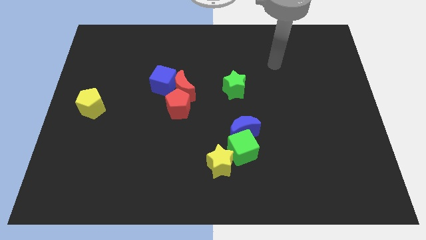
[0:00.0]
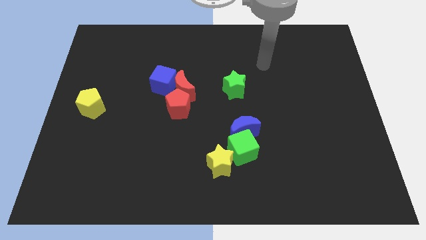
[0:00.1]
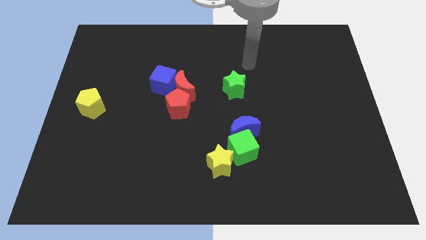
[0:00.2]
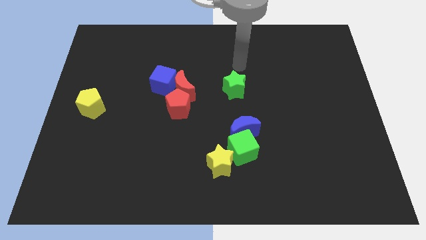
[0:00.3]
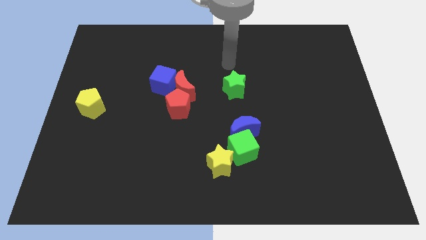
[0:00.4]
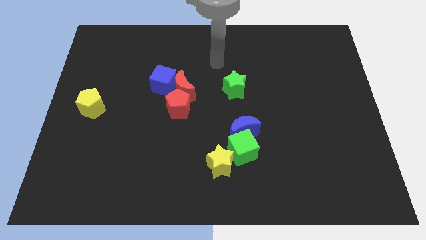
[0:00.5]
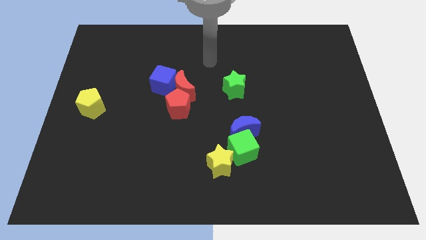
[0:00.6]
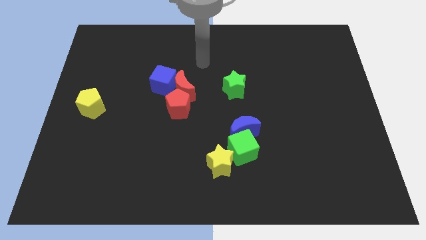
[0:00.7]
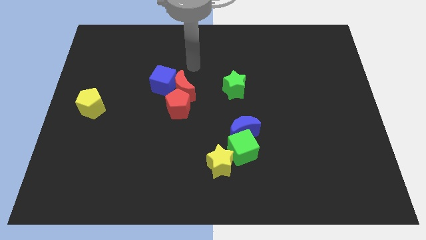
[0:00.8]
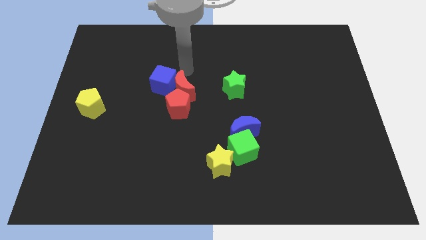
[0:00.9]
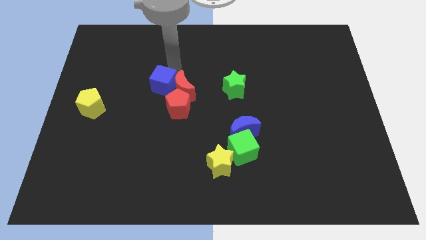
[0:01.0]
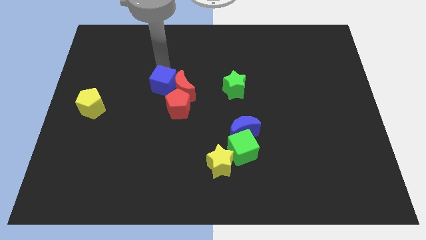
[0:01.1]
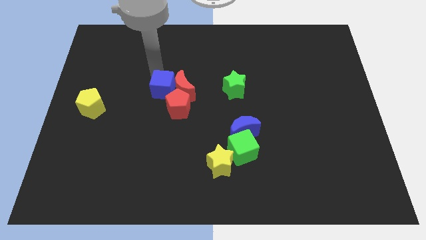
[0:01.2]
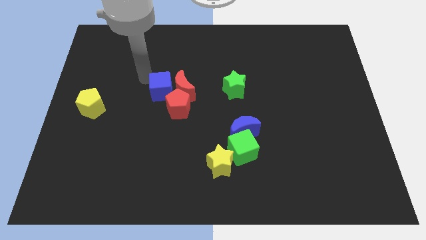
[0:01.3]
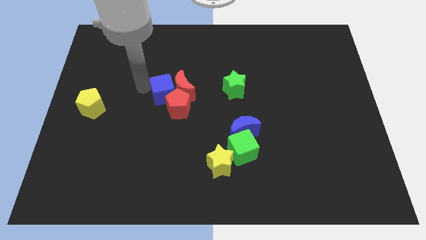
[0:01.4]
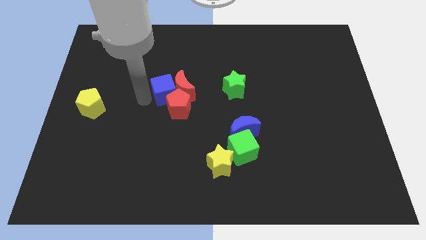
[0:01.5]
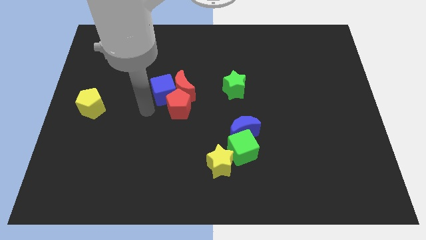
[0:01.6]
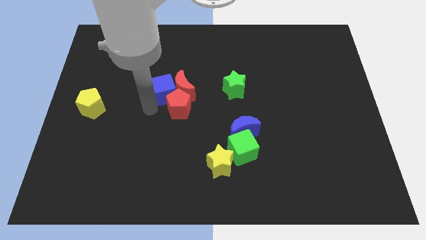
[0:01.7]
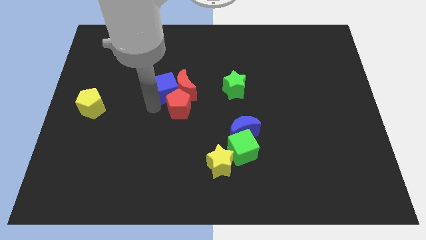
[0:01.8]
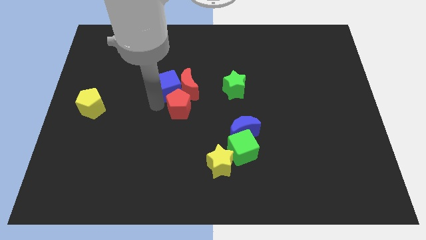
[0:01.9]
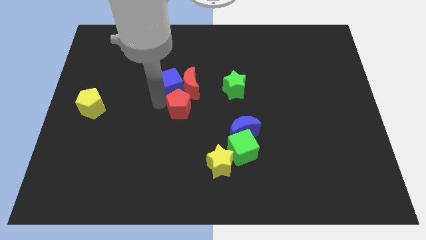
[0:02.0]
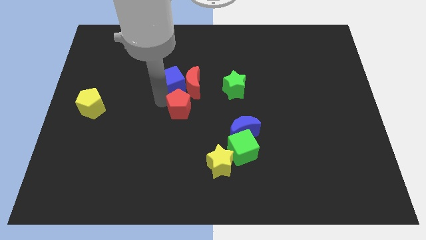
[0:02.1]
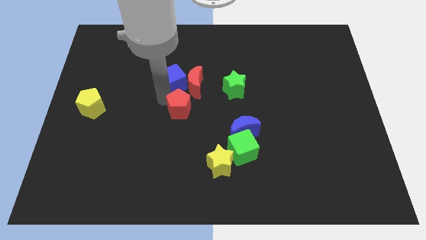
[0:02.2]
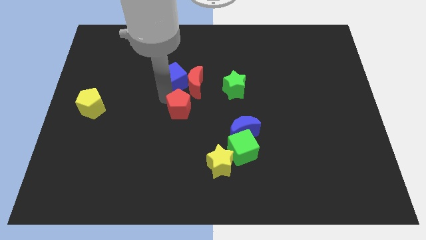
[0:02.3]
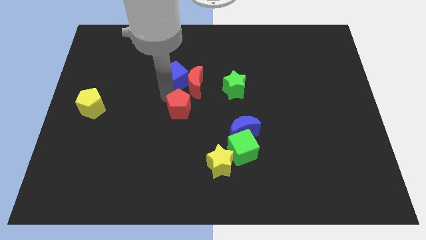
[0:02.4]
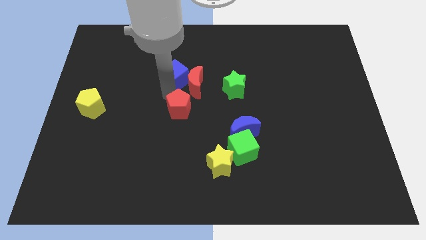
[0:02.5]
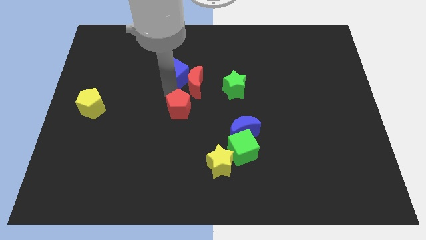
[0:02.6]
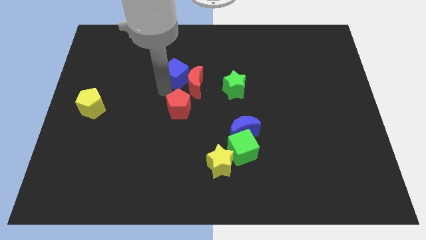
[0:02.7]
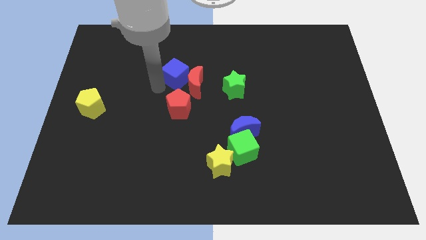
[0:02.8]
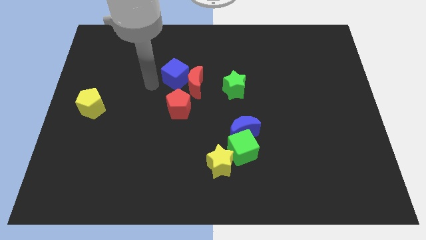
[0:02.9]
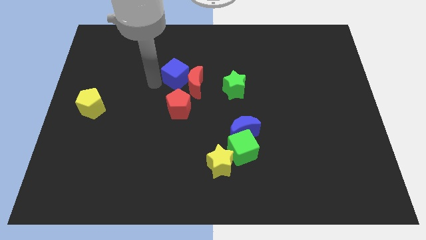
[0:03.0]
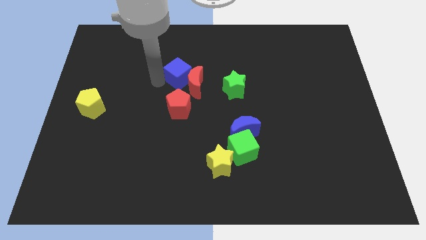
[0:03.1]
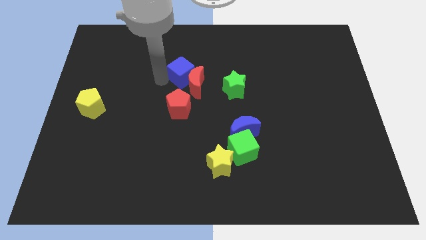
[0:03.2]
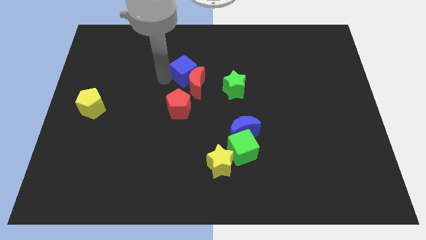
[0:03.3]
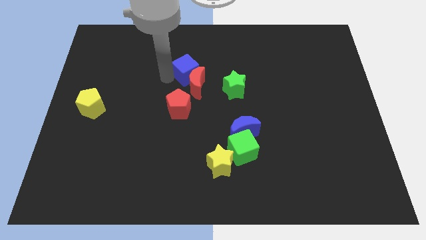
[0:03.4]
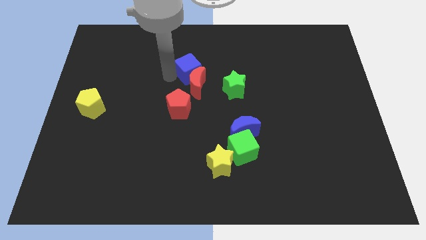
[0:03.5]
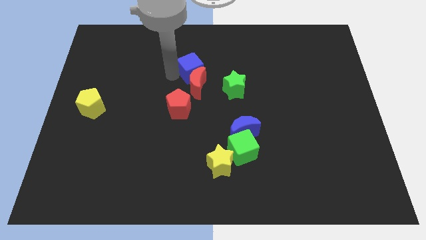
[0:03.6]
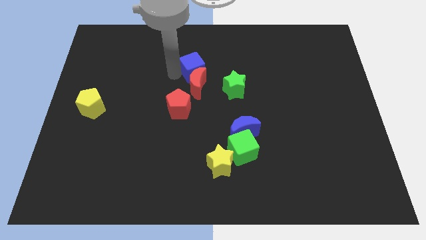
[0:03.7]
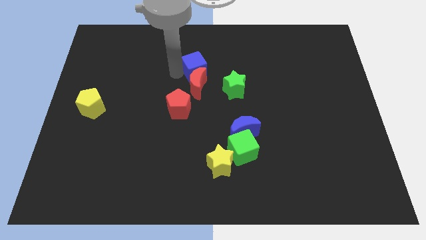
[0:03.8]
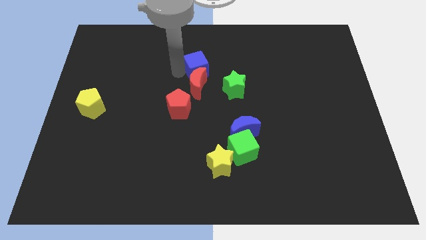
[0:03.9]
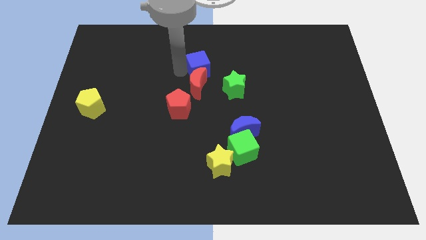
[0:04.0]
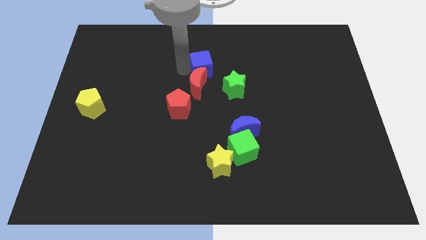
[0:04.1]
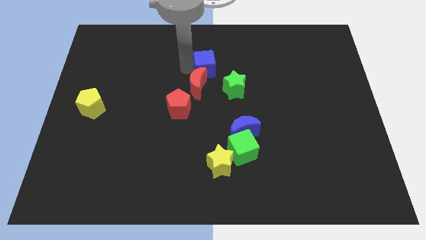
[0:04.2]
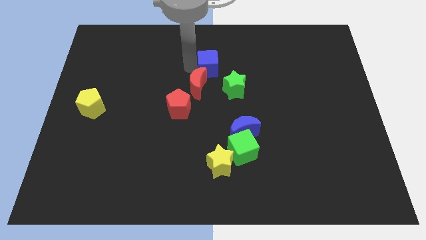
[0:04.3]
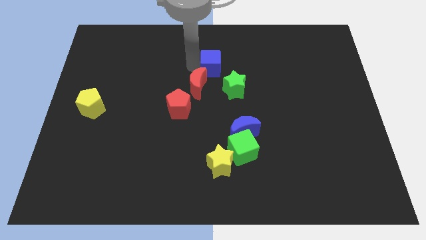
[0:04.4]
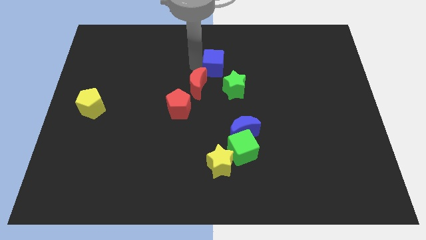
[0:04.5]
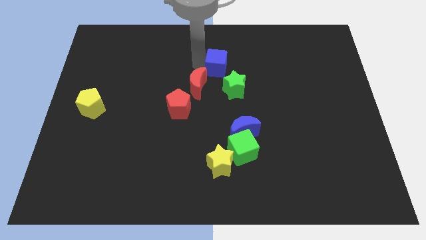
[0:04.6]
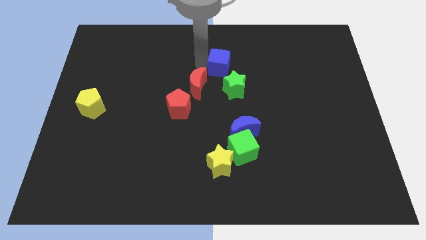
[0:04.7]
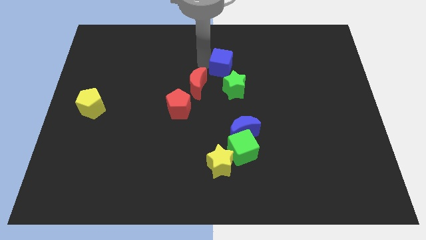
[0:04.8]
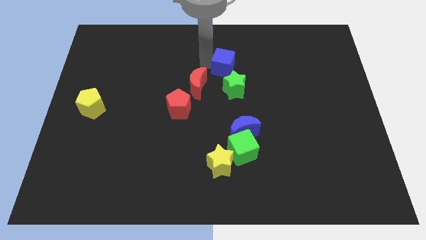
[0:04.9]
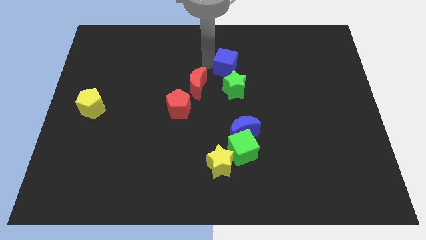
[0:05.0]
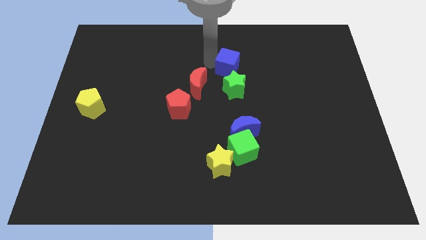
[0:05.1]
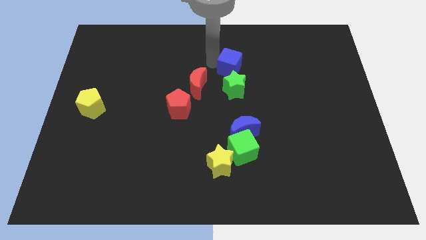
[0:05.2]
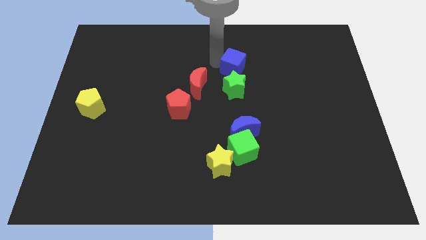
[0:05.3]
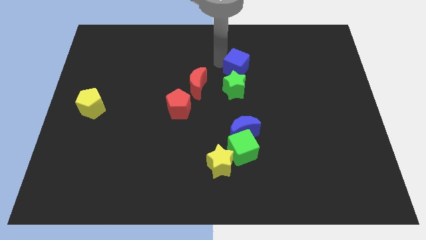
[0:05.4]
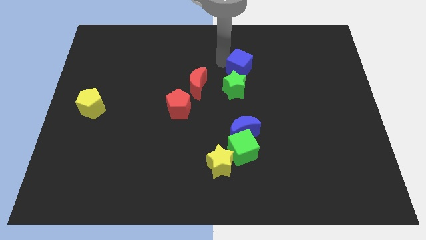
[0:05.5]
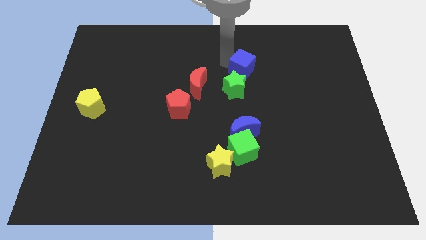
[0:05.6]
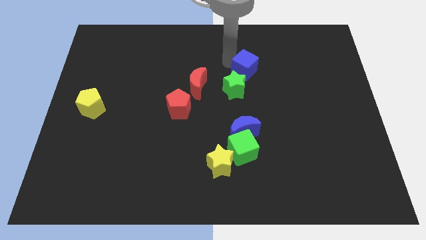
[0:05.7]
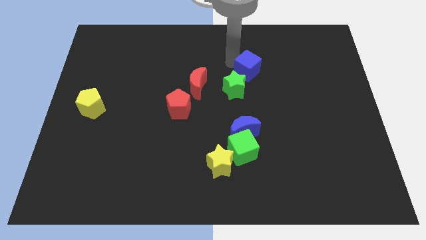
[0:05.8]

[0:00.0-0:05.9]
push the blue cube right

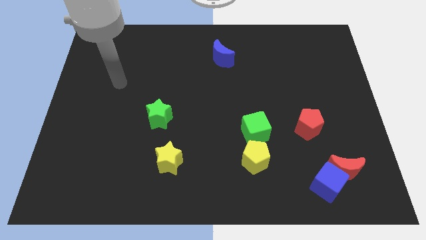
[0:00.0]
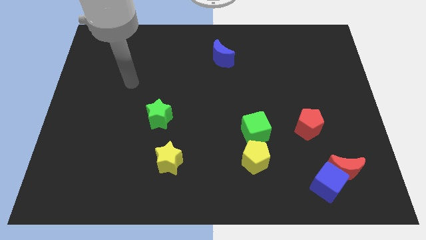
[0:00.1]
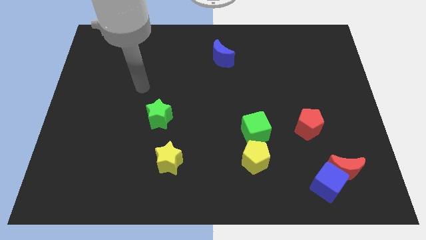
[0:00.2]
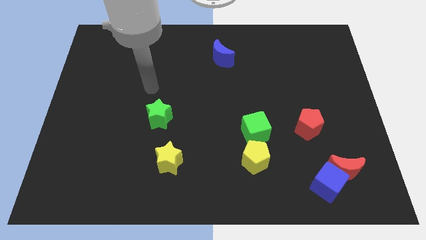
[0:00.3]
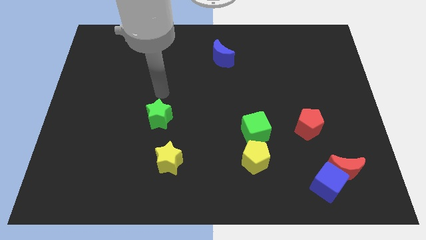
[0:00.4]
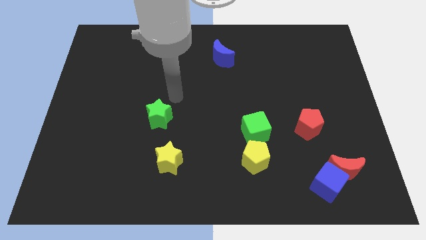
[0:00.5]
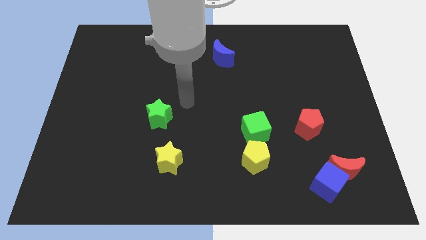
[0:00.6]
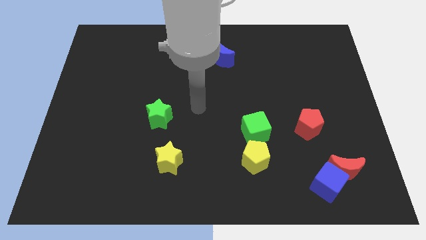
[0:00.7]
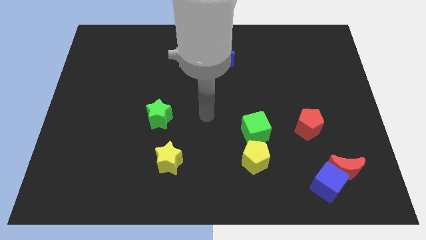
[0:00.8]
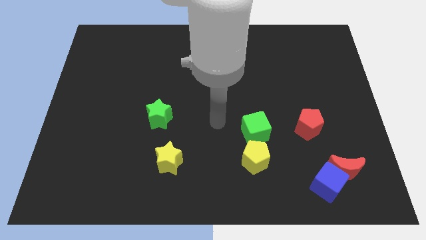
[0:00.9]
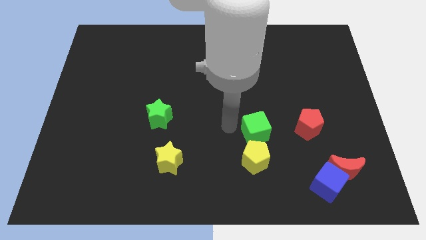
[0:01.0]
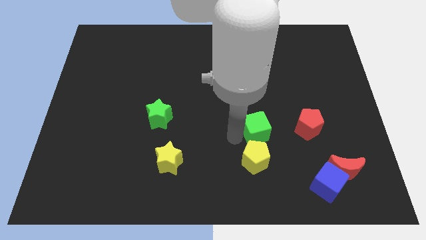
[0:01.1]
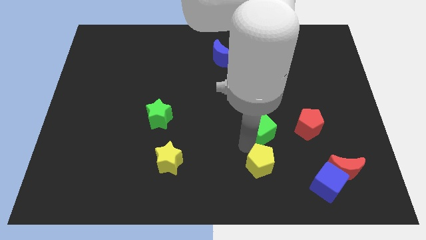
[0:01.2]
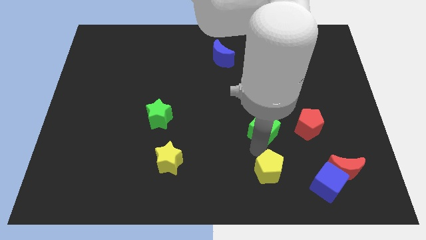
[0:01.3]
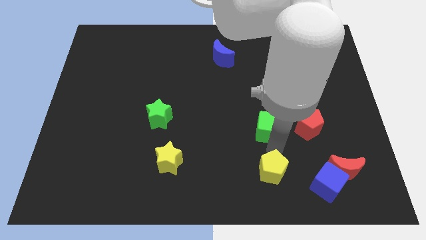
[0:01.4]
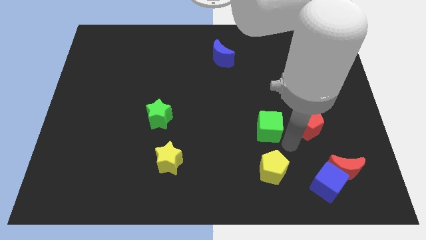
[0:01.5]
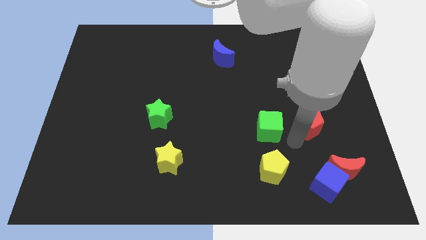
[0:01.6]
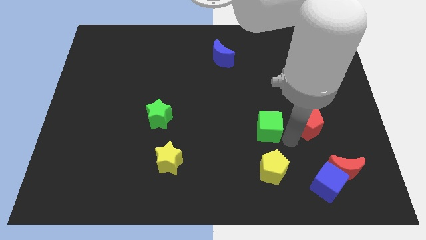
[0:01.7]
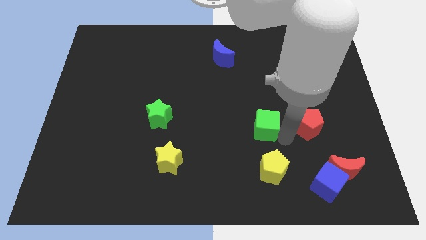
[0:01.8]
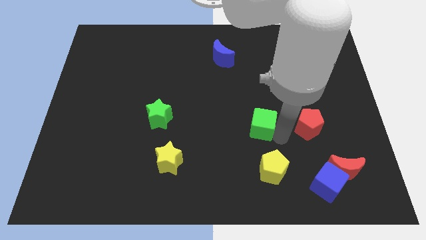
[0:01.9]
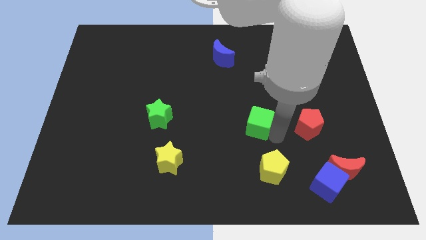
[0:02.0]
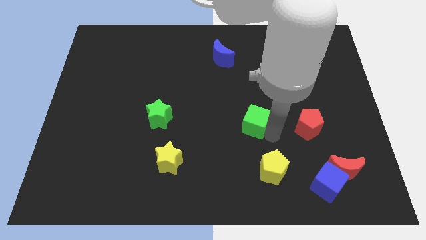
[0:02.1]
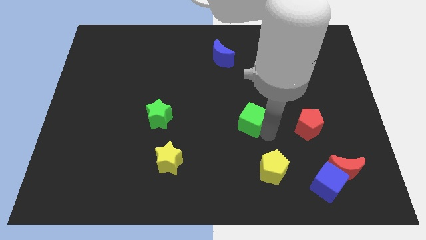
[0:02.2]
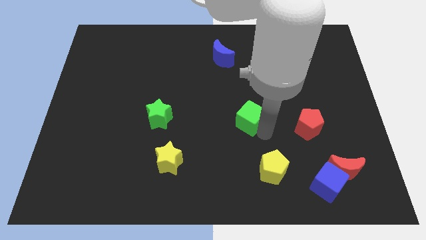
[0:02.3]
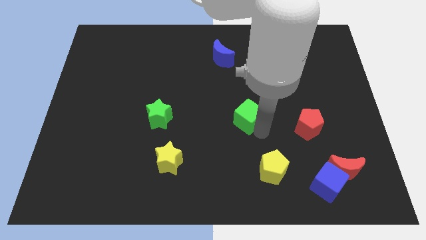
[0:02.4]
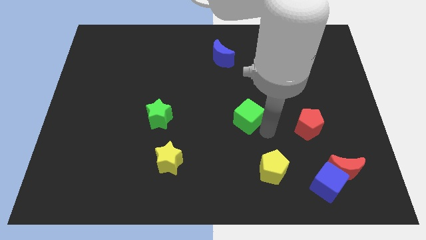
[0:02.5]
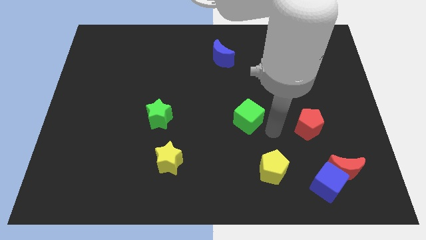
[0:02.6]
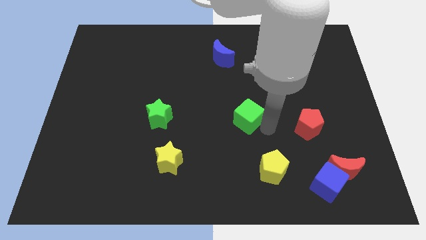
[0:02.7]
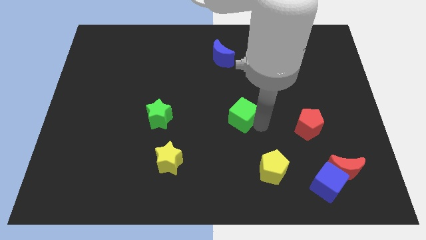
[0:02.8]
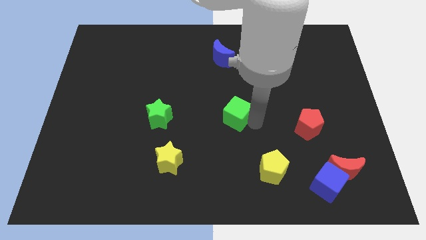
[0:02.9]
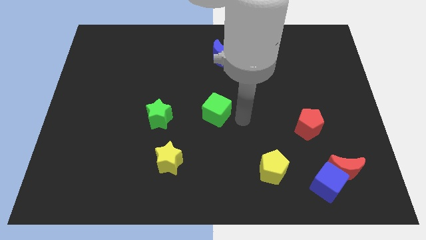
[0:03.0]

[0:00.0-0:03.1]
slightly move the green cube up and to the left diagonally
